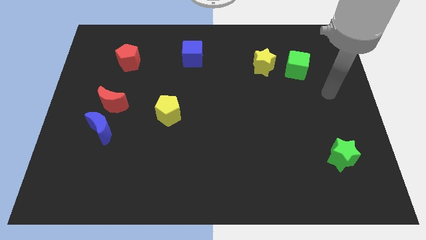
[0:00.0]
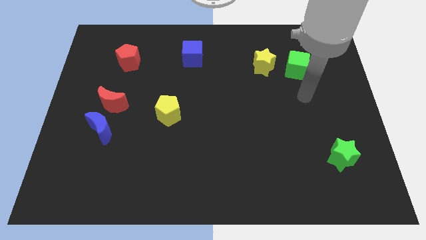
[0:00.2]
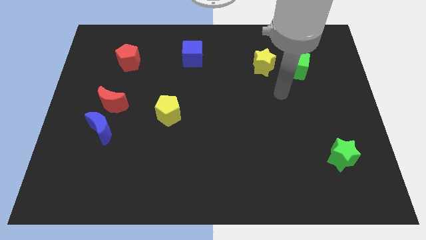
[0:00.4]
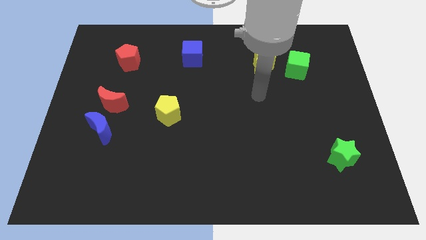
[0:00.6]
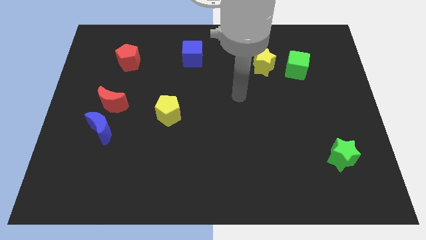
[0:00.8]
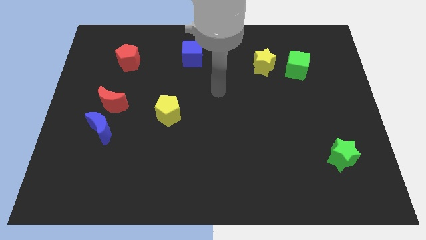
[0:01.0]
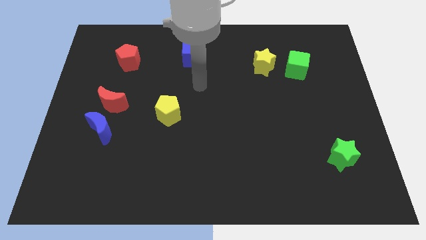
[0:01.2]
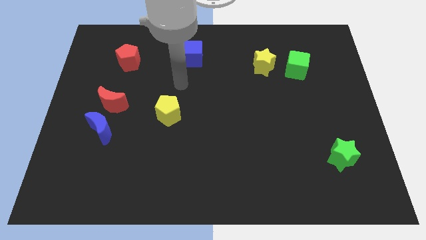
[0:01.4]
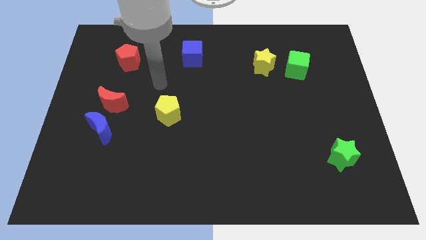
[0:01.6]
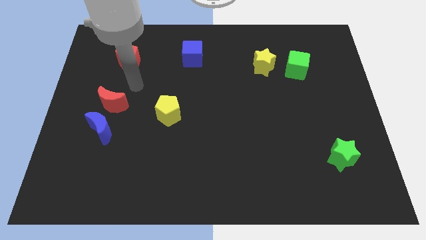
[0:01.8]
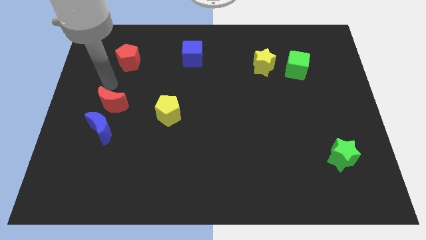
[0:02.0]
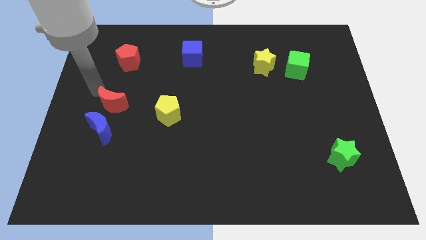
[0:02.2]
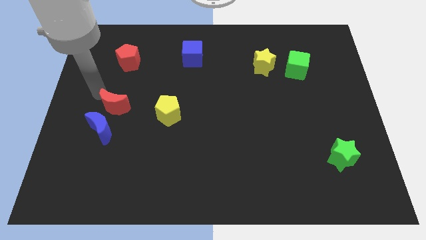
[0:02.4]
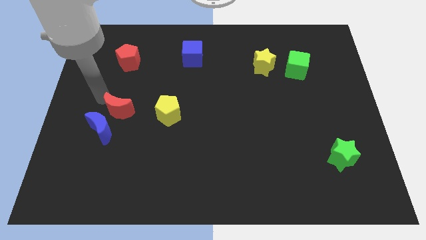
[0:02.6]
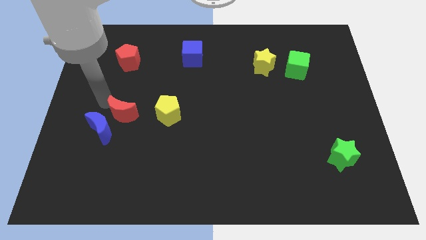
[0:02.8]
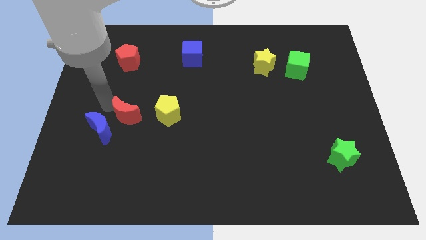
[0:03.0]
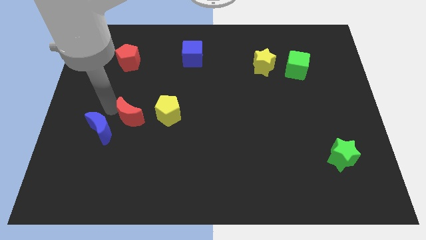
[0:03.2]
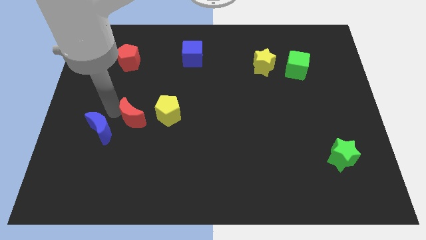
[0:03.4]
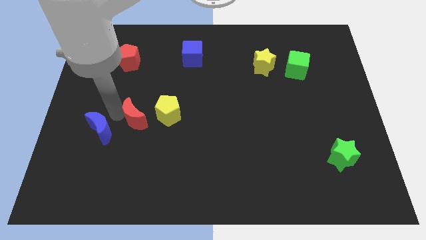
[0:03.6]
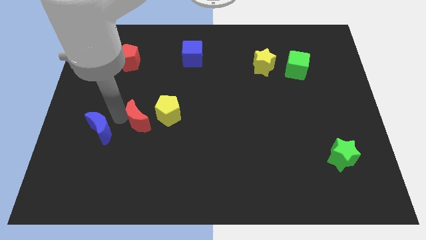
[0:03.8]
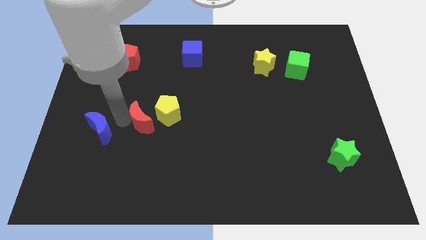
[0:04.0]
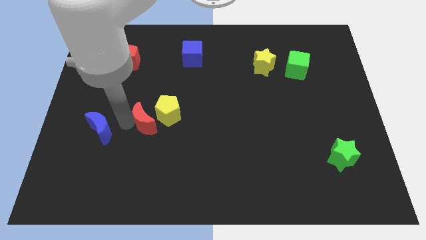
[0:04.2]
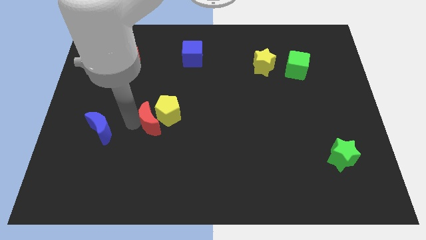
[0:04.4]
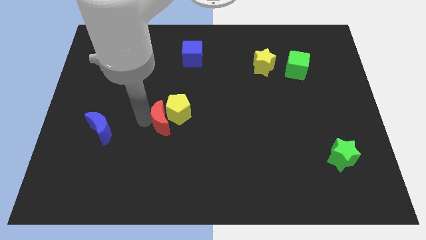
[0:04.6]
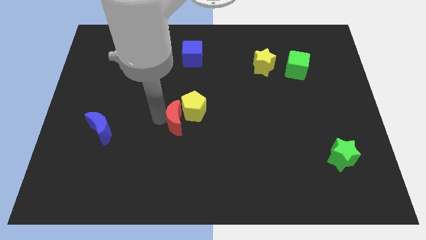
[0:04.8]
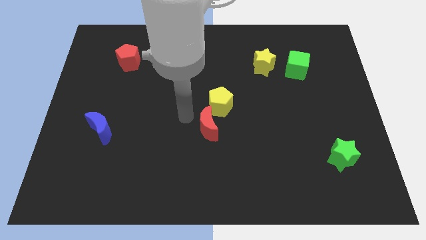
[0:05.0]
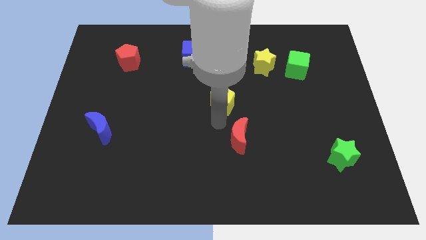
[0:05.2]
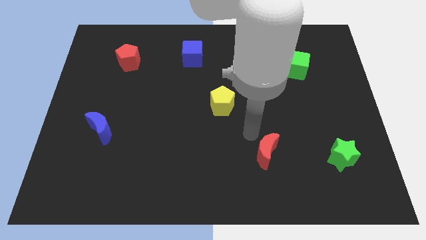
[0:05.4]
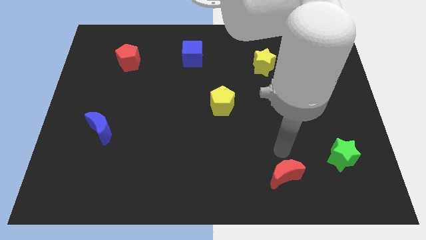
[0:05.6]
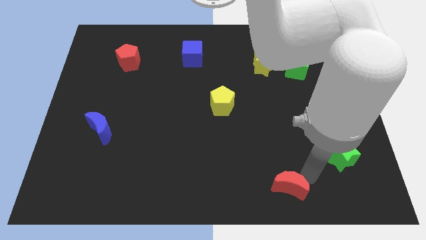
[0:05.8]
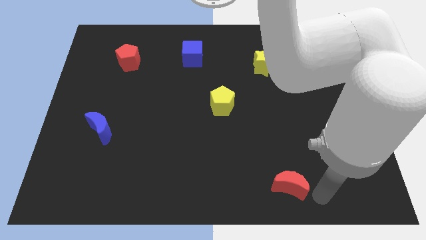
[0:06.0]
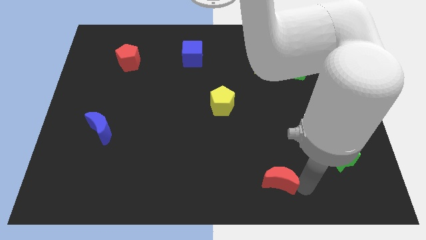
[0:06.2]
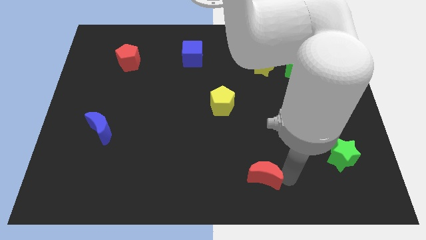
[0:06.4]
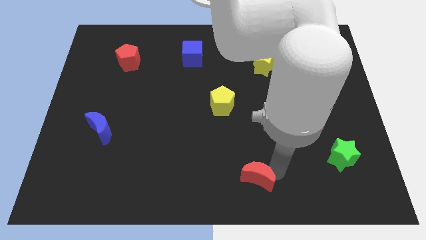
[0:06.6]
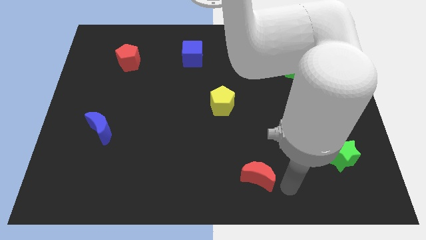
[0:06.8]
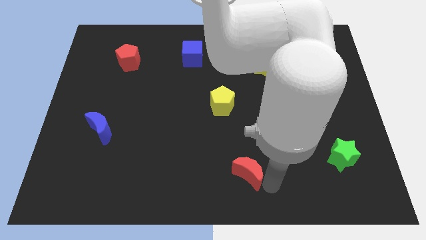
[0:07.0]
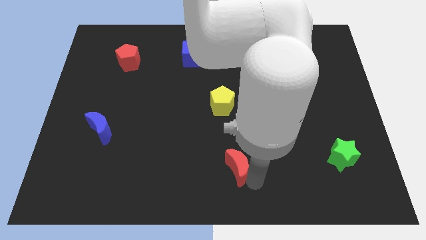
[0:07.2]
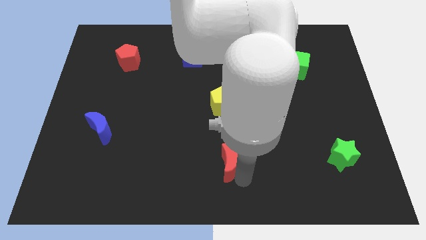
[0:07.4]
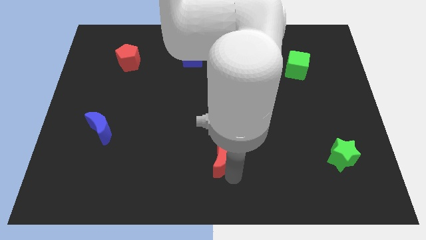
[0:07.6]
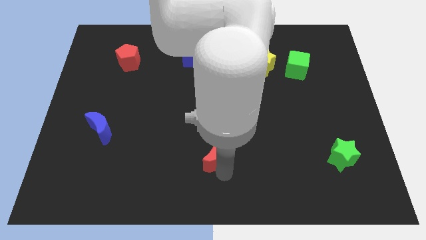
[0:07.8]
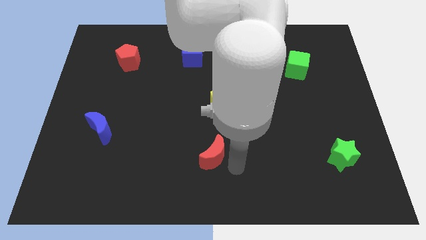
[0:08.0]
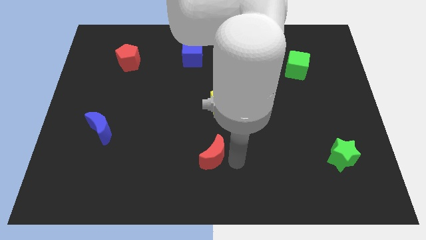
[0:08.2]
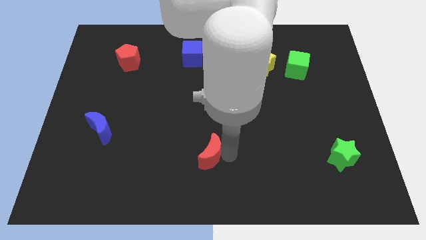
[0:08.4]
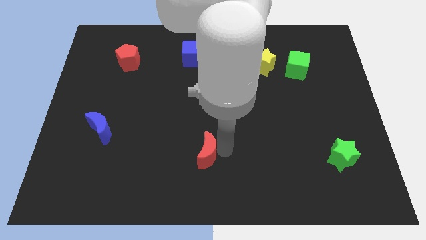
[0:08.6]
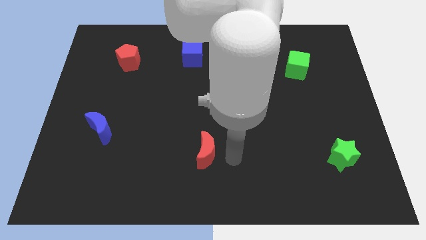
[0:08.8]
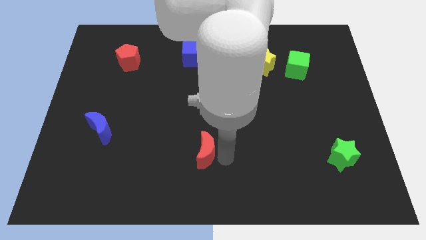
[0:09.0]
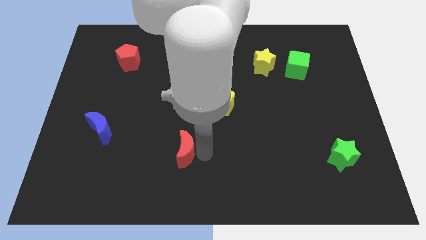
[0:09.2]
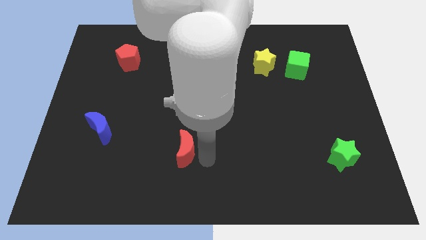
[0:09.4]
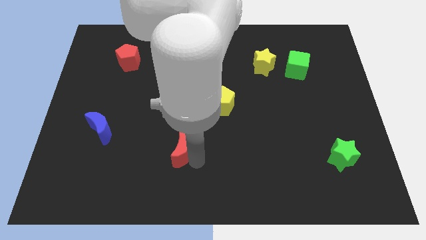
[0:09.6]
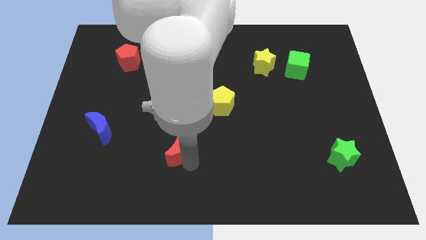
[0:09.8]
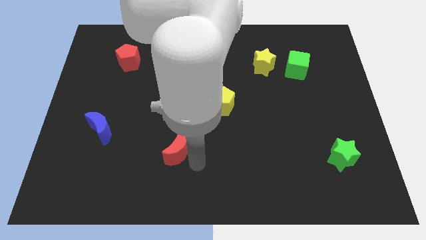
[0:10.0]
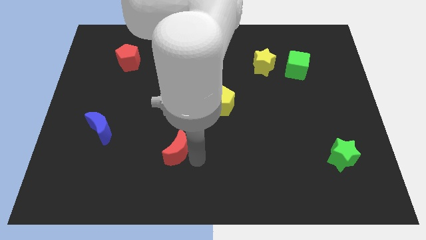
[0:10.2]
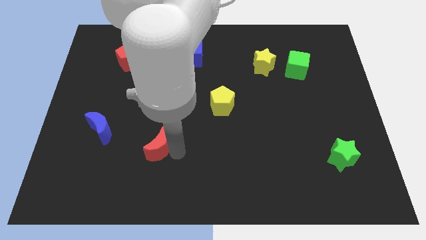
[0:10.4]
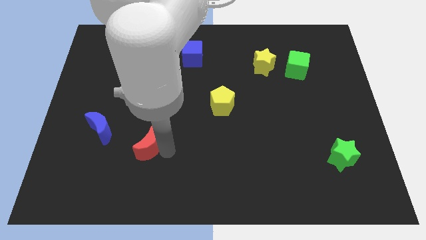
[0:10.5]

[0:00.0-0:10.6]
slide the red moon down a bit

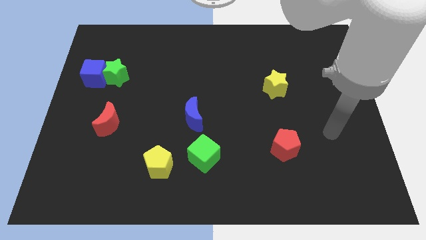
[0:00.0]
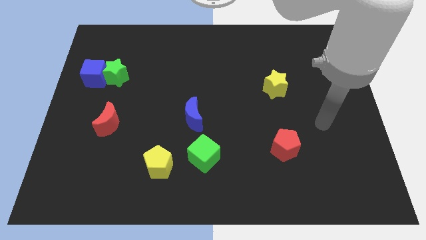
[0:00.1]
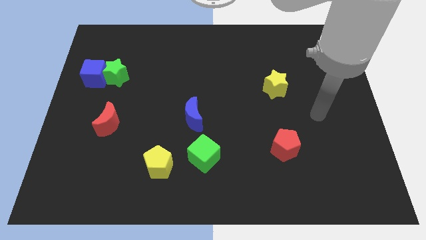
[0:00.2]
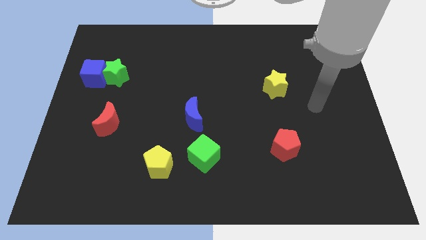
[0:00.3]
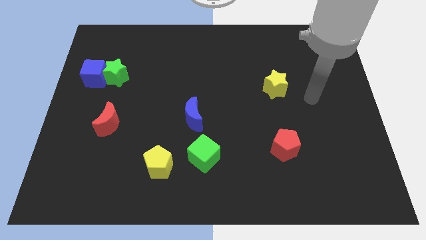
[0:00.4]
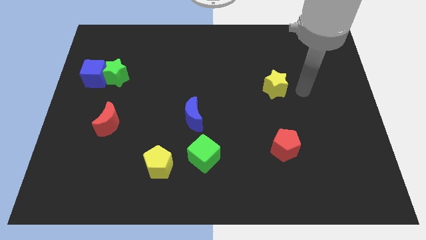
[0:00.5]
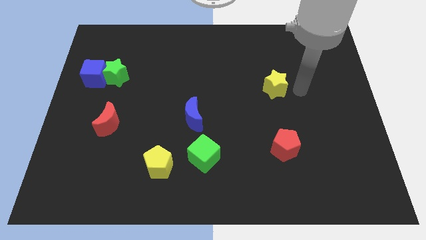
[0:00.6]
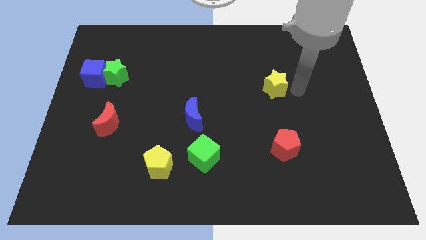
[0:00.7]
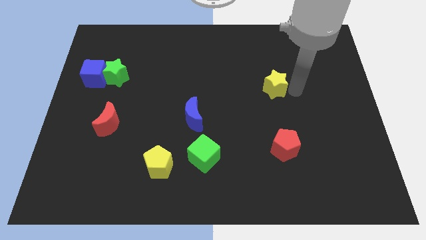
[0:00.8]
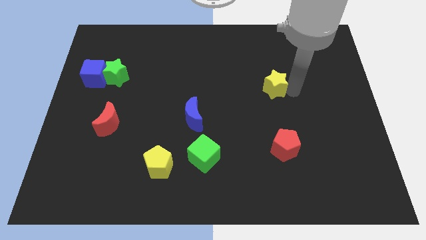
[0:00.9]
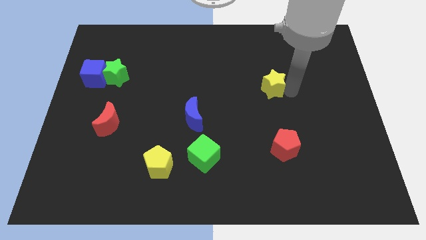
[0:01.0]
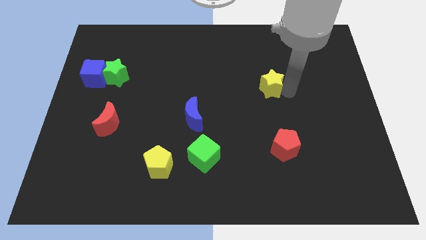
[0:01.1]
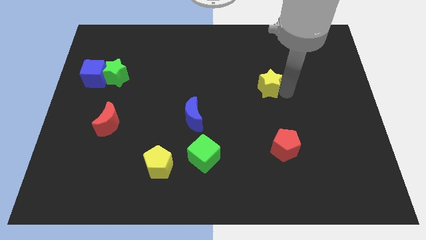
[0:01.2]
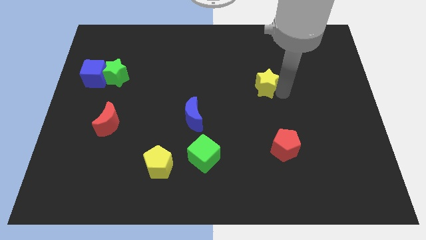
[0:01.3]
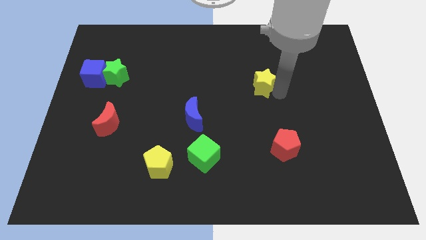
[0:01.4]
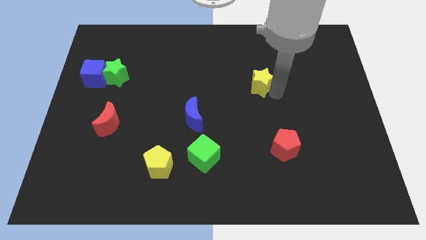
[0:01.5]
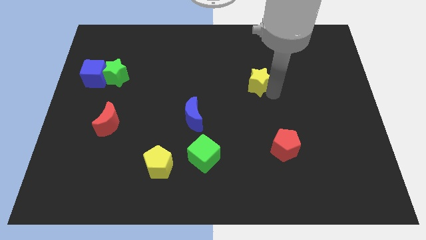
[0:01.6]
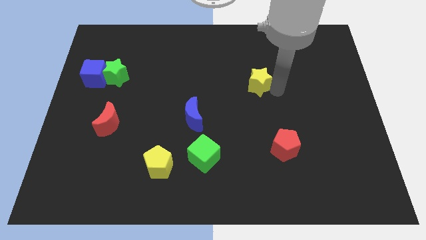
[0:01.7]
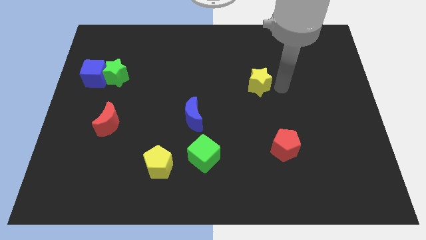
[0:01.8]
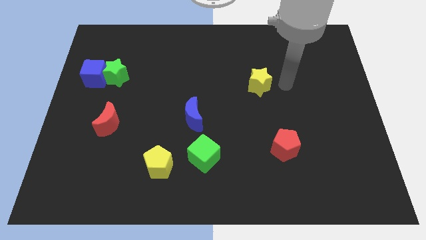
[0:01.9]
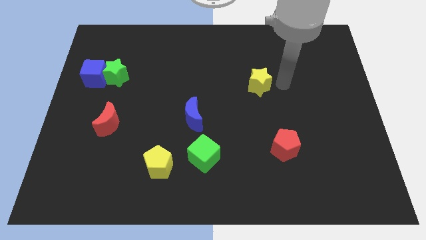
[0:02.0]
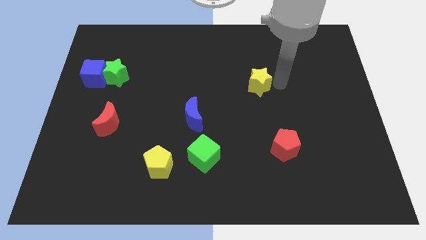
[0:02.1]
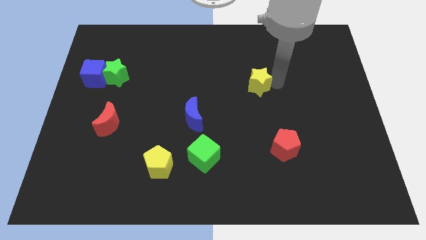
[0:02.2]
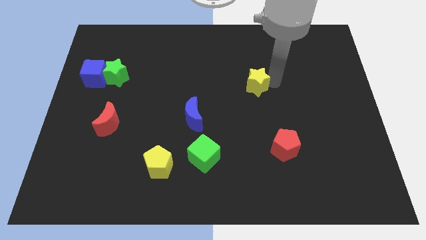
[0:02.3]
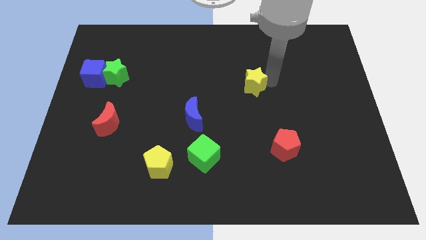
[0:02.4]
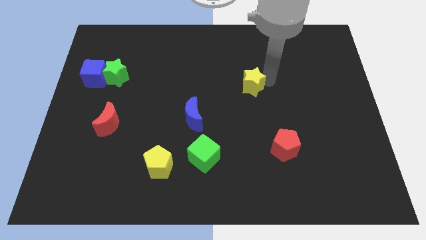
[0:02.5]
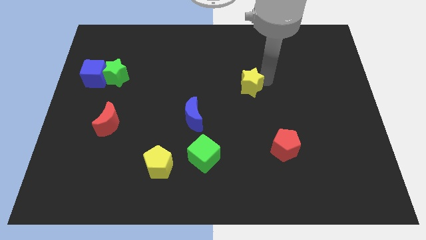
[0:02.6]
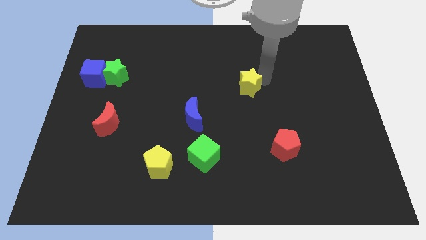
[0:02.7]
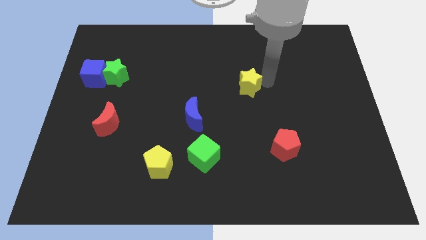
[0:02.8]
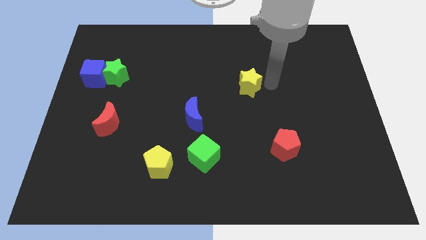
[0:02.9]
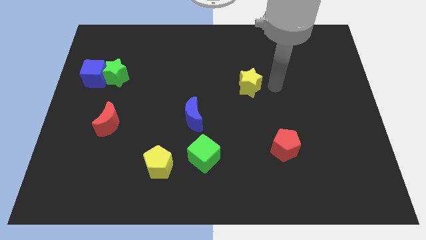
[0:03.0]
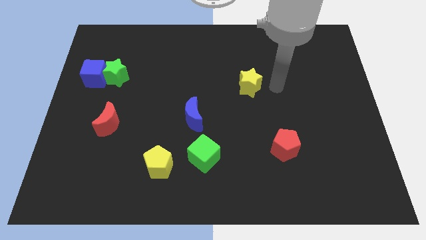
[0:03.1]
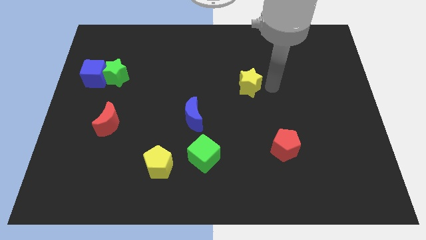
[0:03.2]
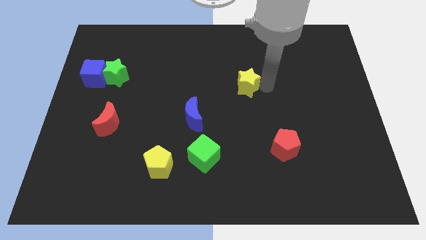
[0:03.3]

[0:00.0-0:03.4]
slightly push the yellow star to the left
